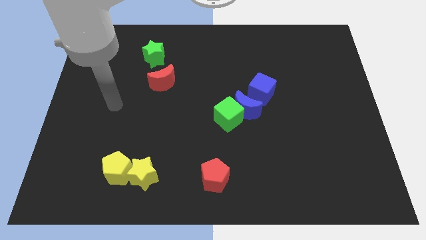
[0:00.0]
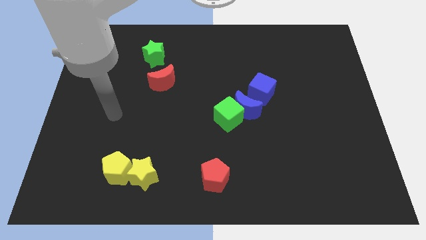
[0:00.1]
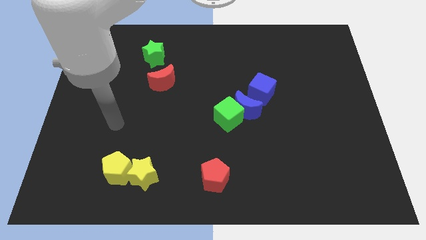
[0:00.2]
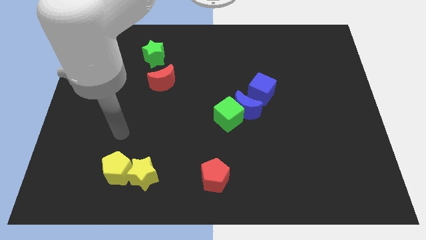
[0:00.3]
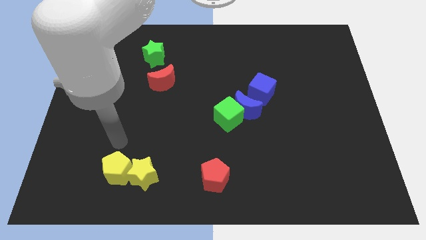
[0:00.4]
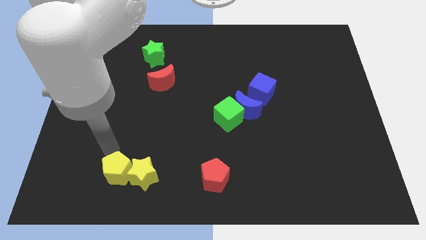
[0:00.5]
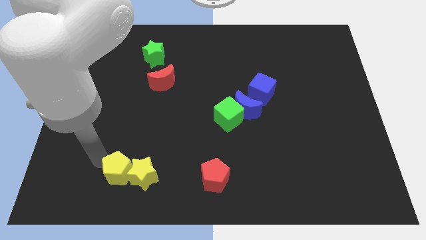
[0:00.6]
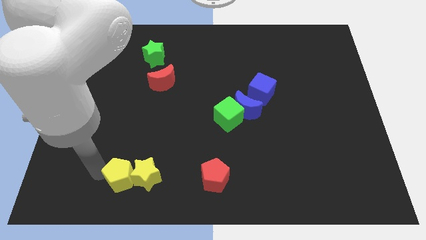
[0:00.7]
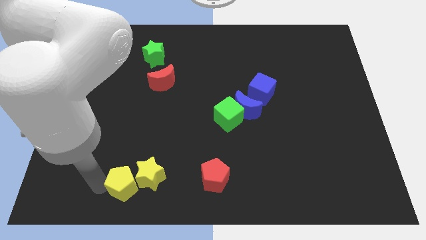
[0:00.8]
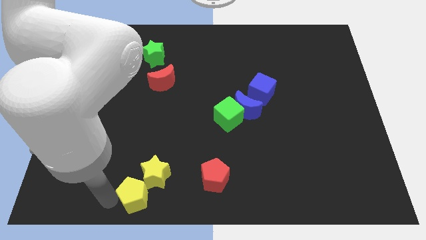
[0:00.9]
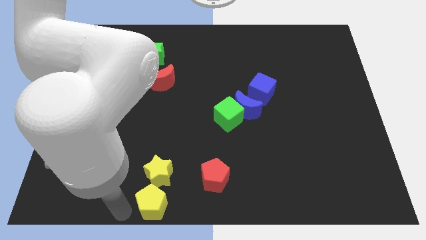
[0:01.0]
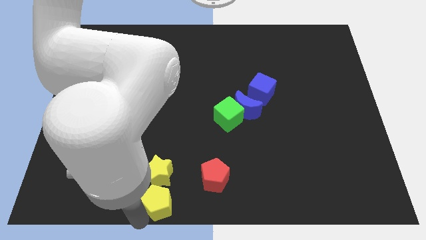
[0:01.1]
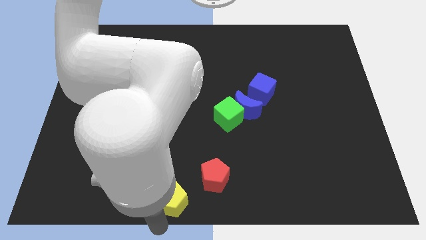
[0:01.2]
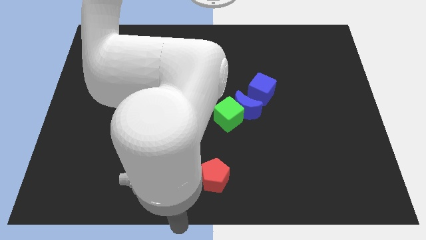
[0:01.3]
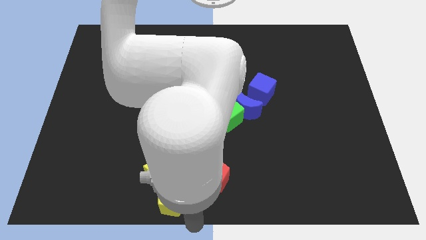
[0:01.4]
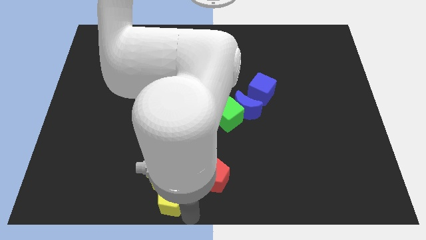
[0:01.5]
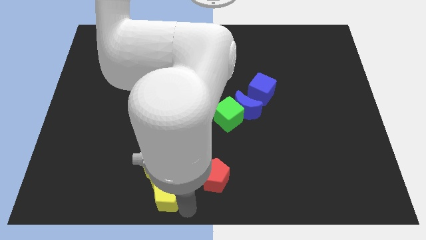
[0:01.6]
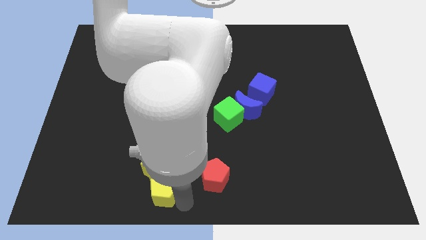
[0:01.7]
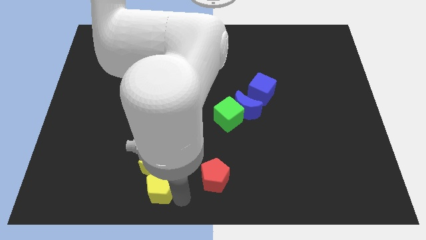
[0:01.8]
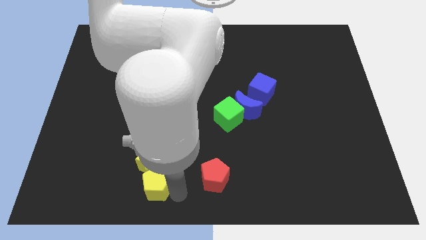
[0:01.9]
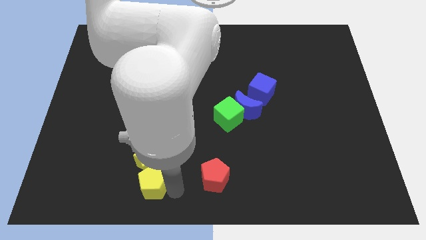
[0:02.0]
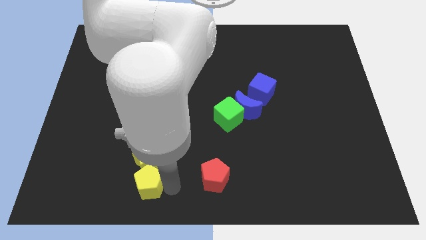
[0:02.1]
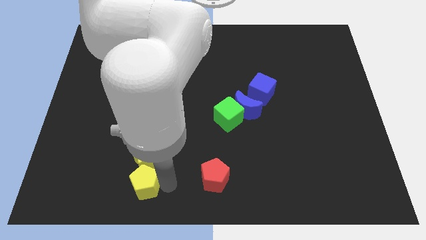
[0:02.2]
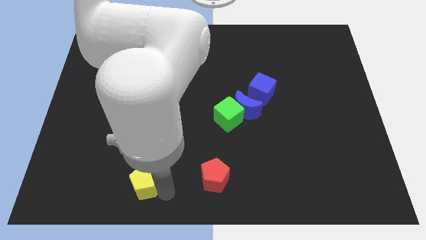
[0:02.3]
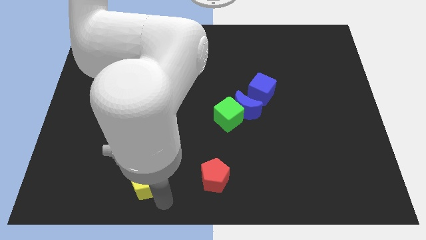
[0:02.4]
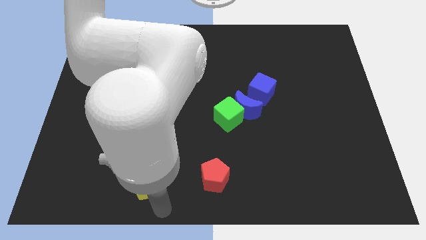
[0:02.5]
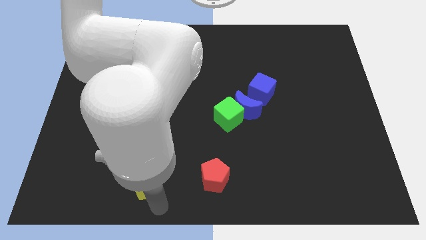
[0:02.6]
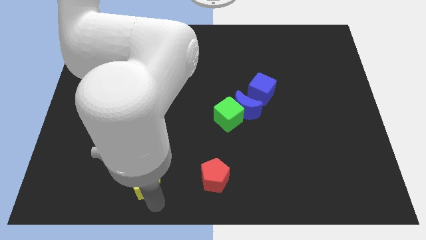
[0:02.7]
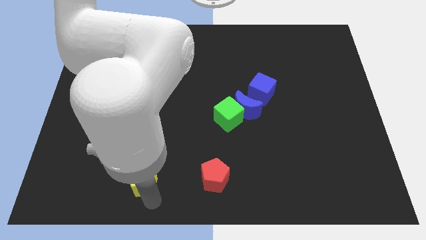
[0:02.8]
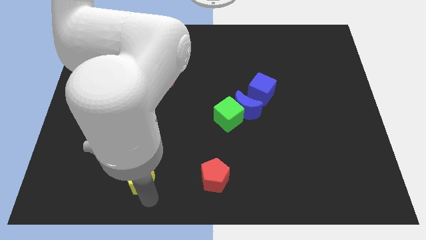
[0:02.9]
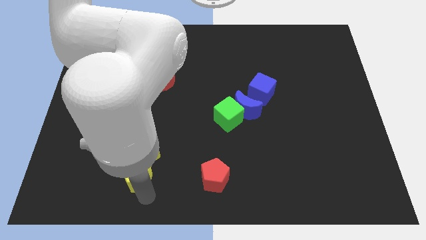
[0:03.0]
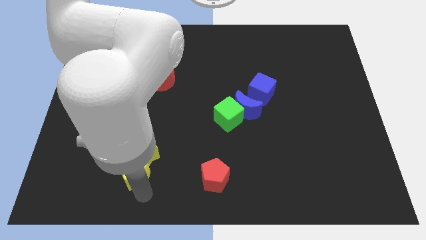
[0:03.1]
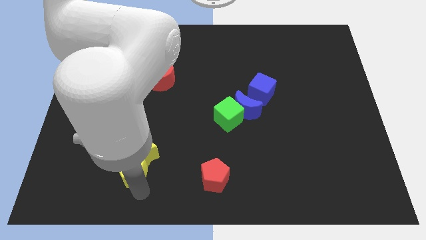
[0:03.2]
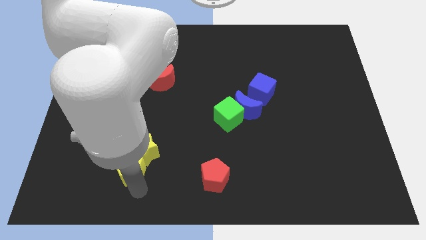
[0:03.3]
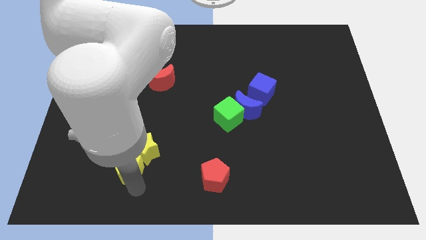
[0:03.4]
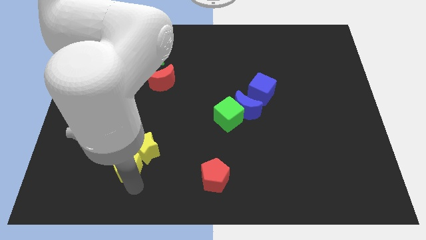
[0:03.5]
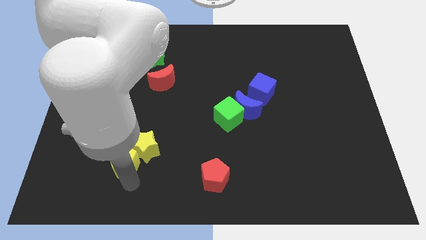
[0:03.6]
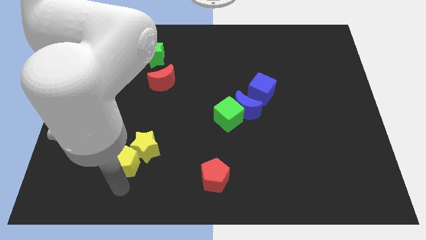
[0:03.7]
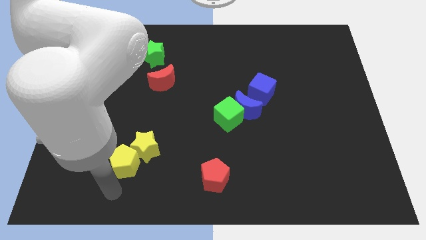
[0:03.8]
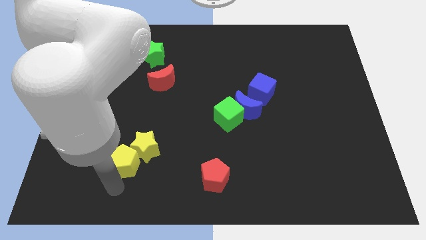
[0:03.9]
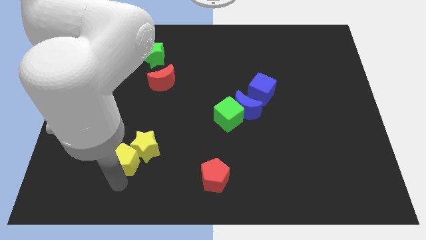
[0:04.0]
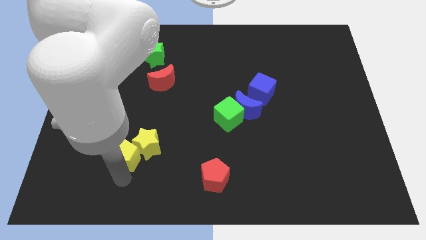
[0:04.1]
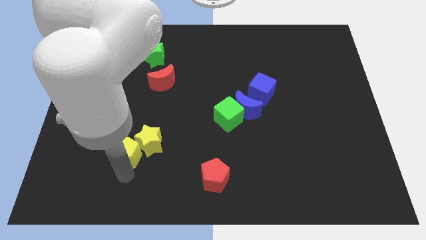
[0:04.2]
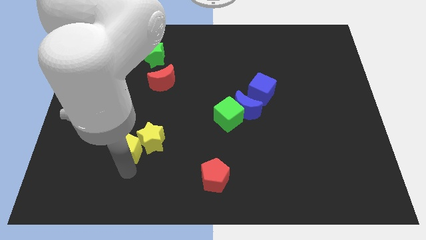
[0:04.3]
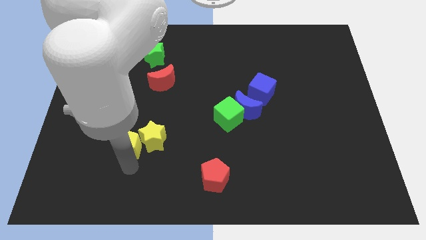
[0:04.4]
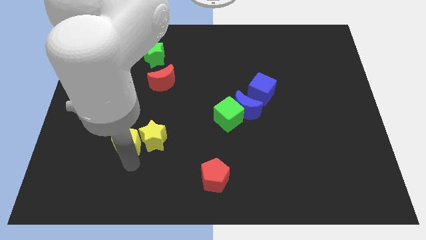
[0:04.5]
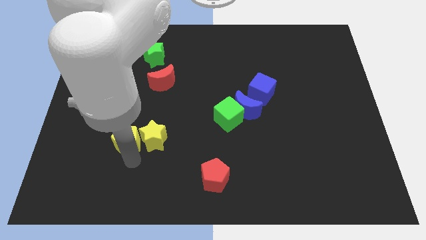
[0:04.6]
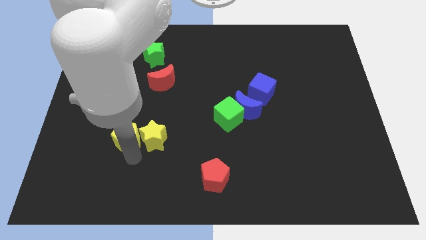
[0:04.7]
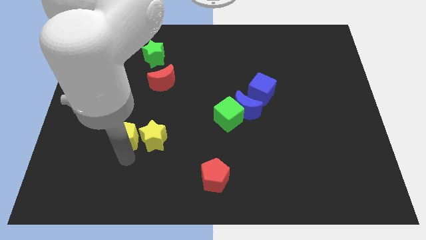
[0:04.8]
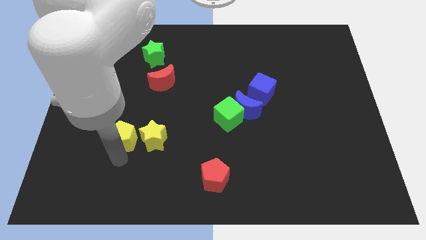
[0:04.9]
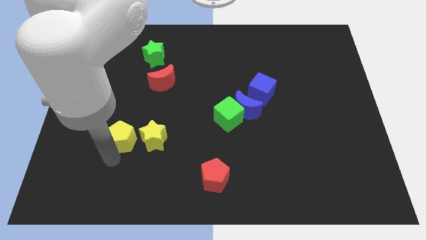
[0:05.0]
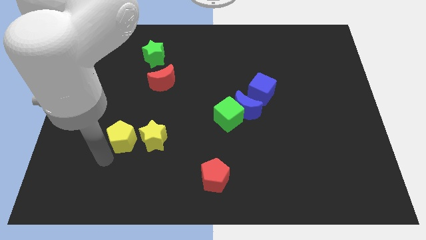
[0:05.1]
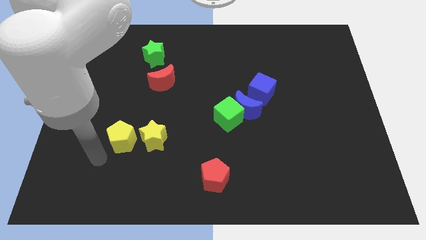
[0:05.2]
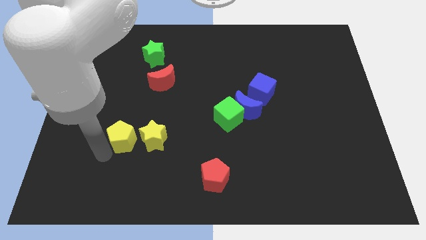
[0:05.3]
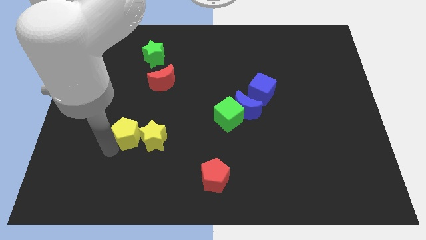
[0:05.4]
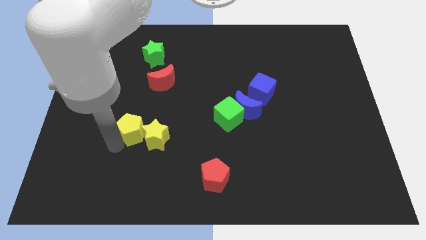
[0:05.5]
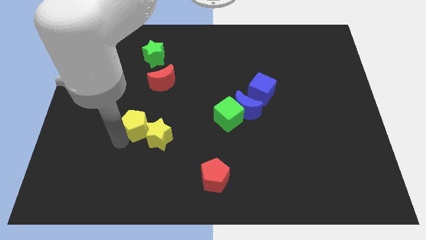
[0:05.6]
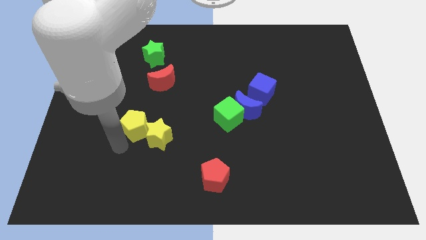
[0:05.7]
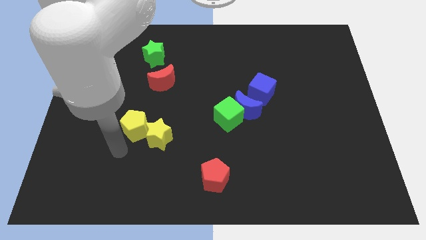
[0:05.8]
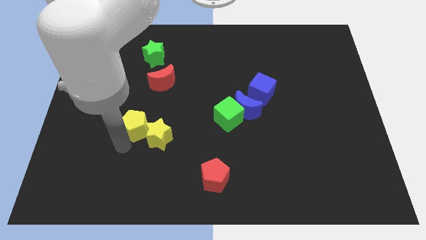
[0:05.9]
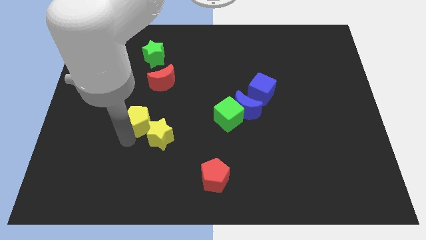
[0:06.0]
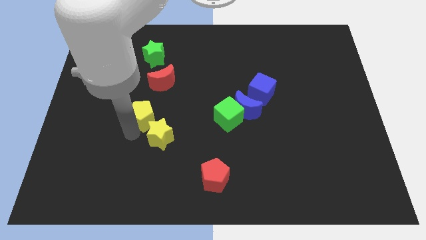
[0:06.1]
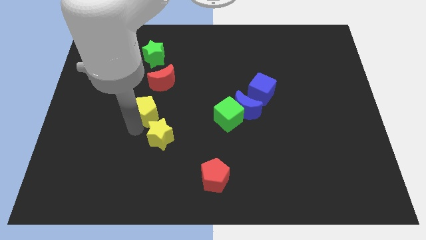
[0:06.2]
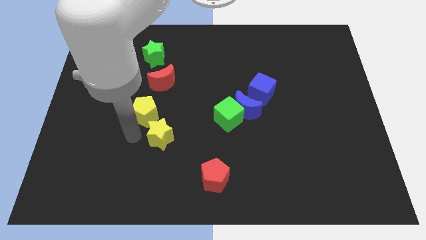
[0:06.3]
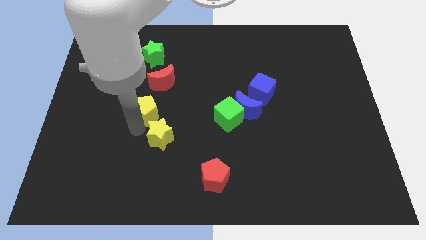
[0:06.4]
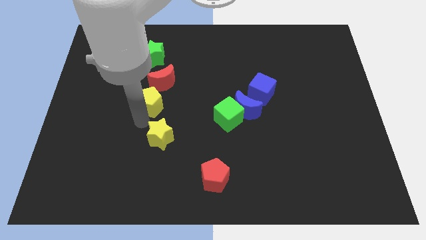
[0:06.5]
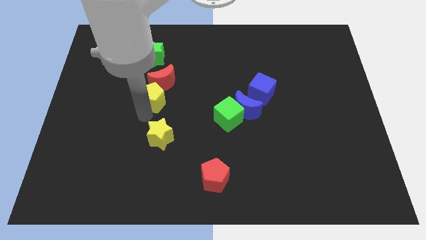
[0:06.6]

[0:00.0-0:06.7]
move the yellow pentagon towards the red moon

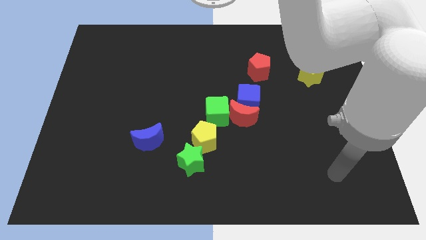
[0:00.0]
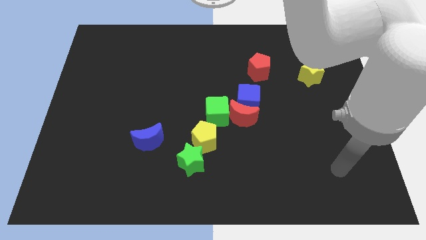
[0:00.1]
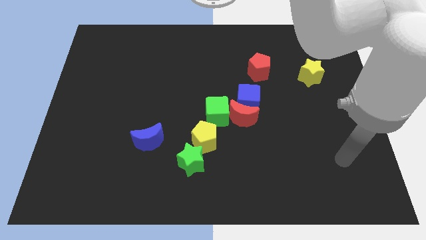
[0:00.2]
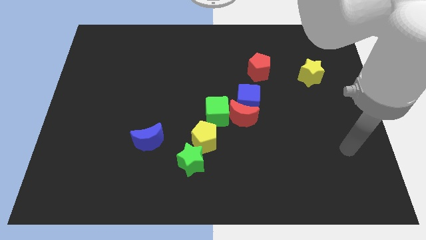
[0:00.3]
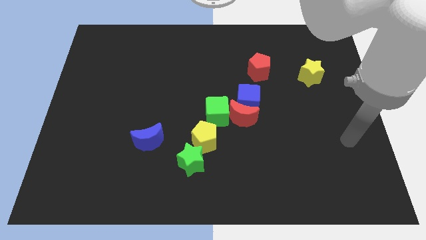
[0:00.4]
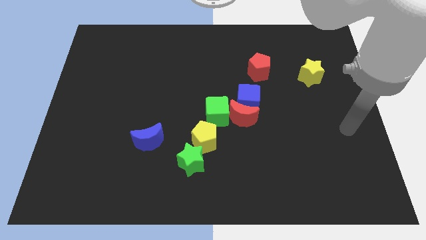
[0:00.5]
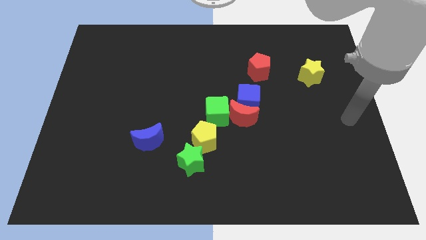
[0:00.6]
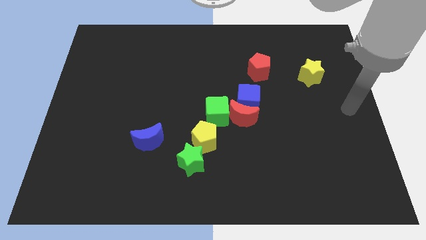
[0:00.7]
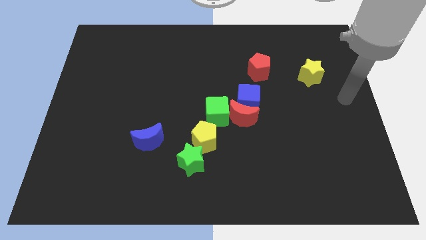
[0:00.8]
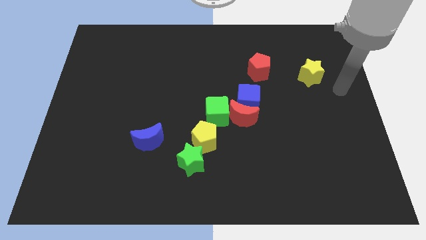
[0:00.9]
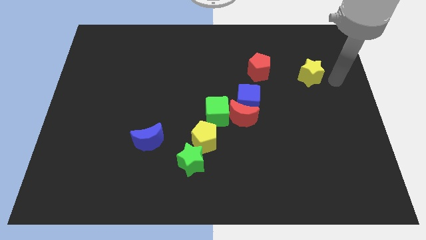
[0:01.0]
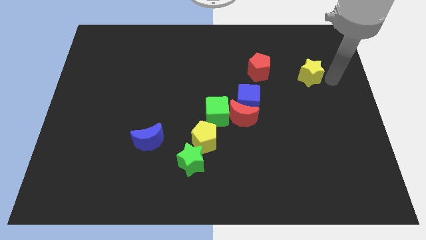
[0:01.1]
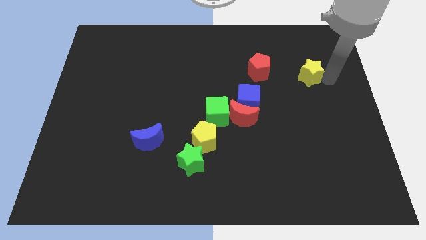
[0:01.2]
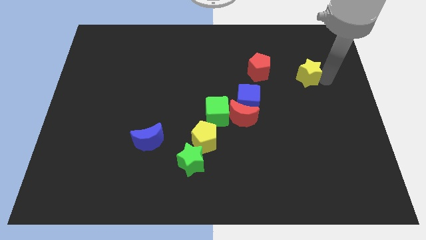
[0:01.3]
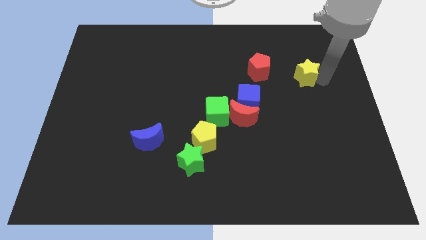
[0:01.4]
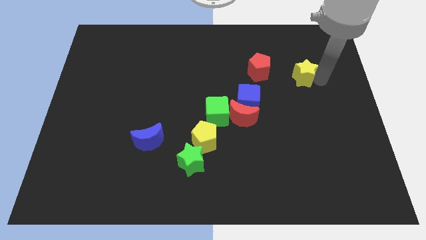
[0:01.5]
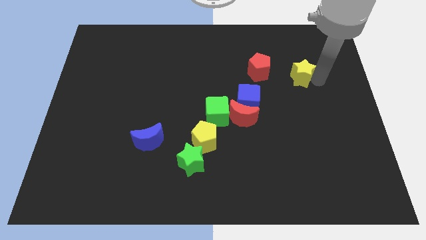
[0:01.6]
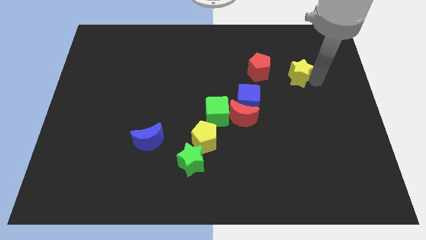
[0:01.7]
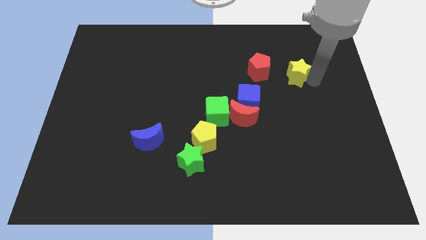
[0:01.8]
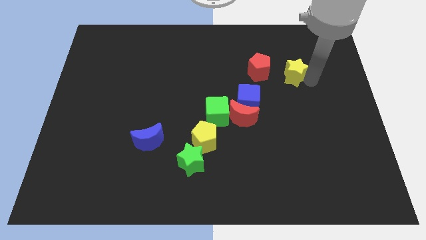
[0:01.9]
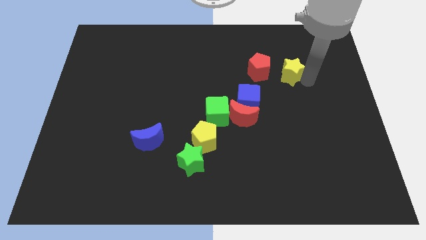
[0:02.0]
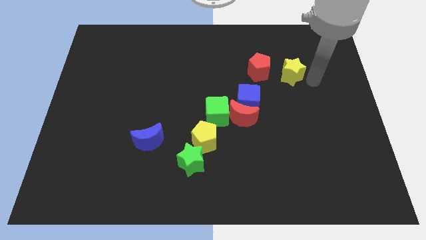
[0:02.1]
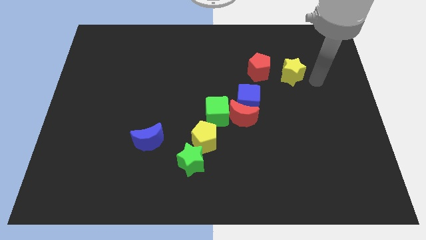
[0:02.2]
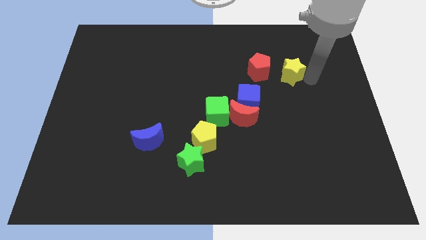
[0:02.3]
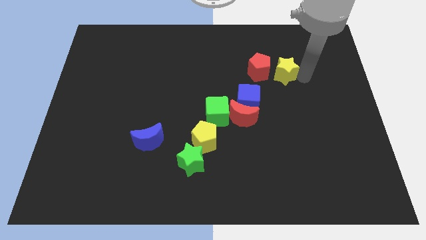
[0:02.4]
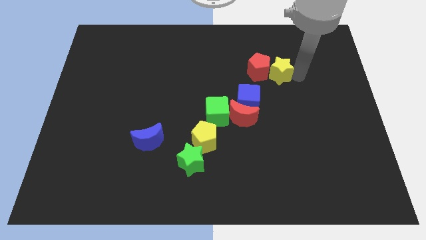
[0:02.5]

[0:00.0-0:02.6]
put the yellow star next to the red pentagon
